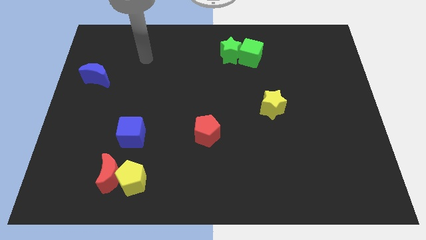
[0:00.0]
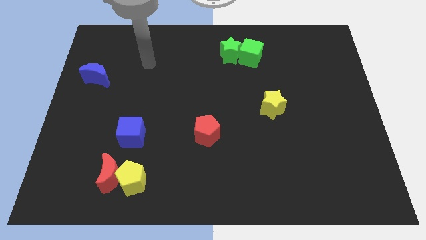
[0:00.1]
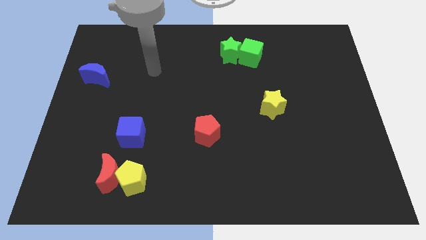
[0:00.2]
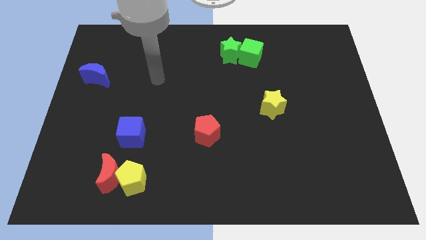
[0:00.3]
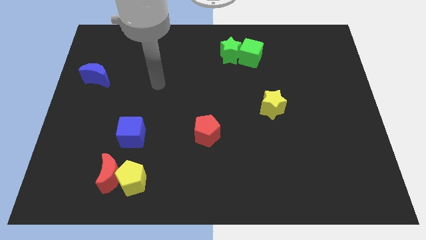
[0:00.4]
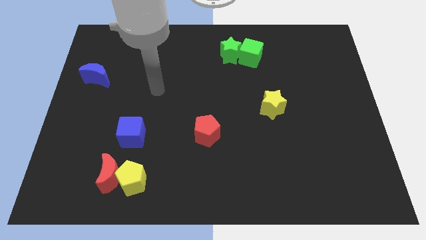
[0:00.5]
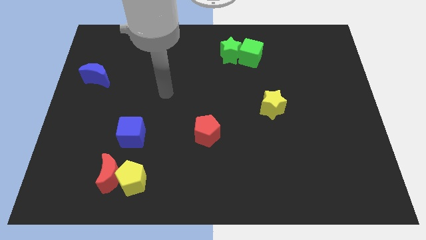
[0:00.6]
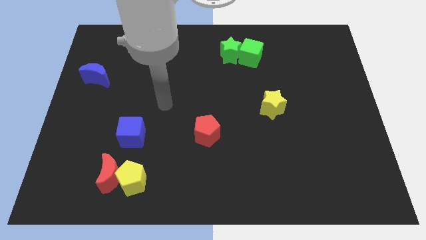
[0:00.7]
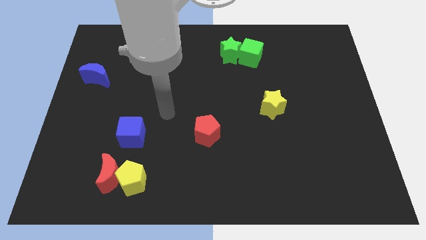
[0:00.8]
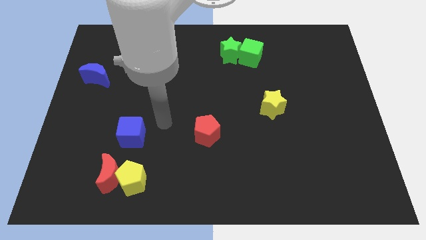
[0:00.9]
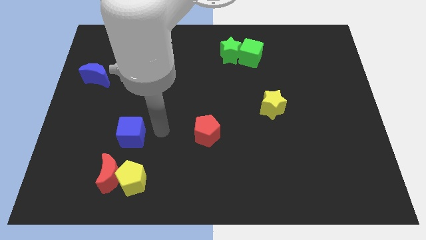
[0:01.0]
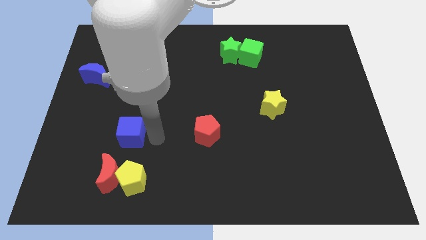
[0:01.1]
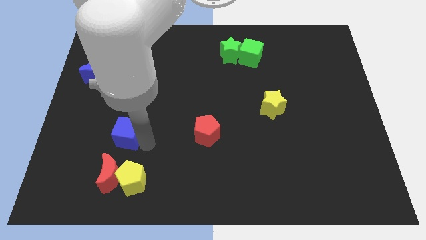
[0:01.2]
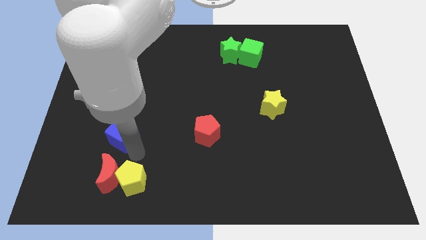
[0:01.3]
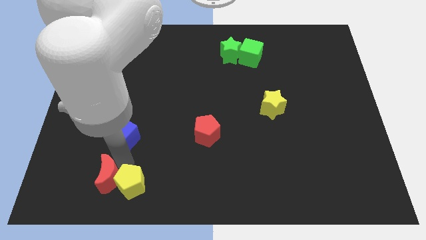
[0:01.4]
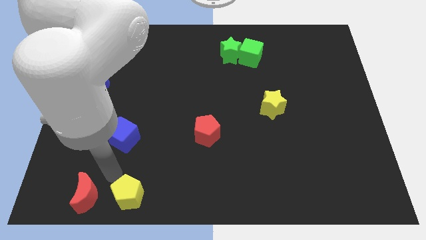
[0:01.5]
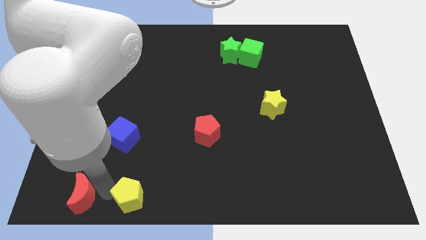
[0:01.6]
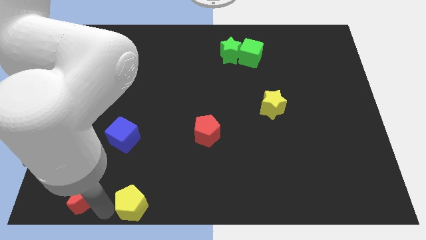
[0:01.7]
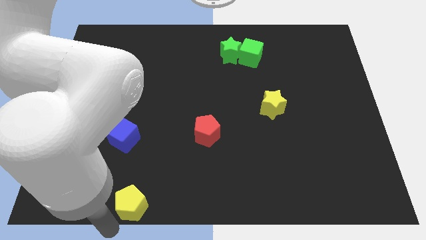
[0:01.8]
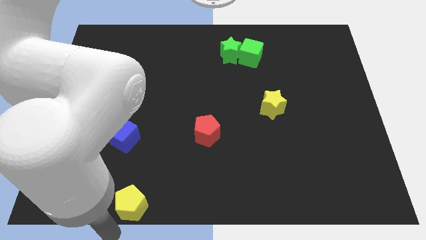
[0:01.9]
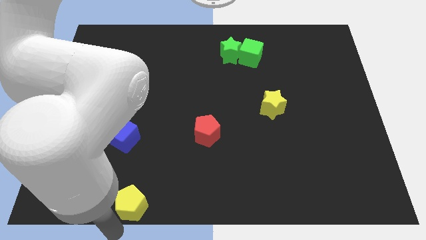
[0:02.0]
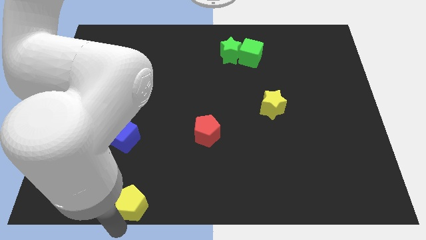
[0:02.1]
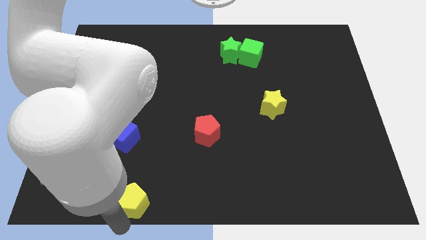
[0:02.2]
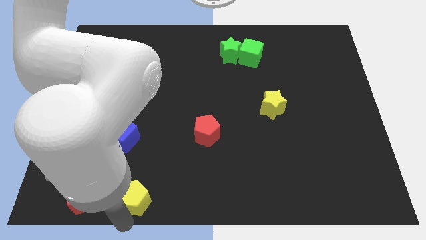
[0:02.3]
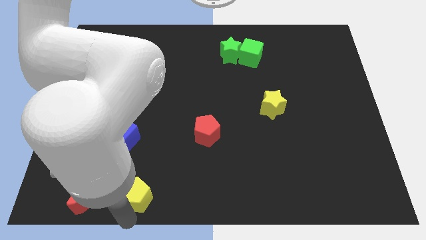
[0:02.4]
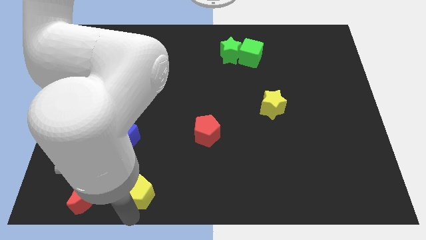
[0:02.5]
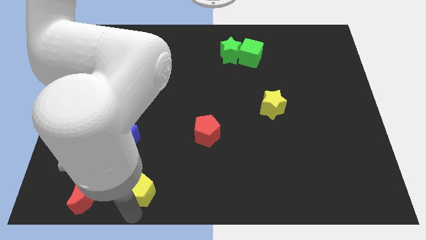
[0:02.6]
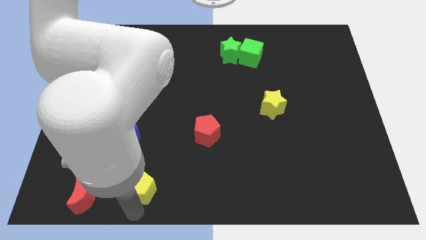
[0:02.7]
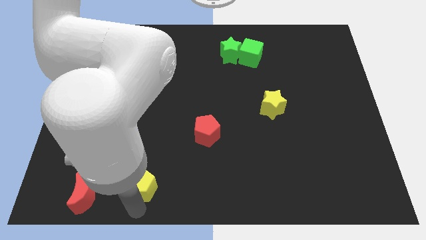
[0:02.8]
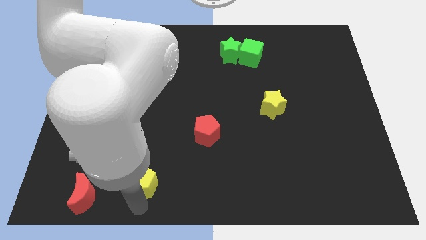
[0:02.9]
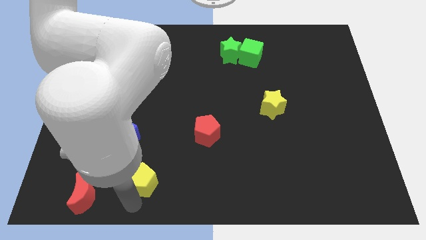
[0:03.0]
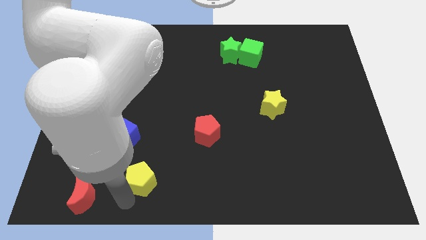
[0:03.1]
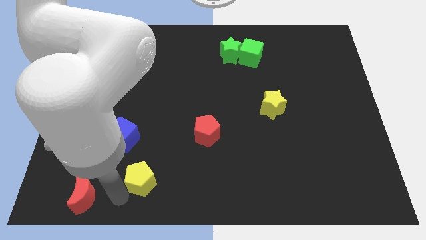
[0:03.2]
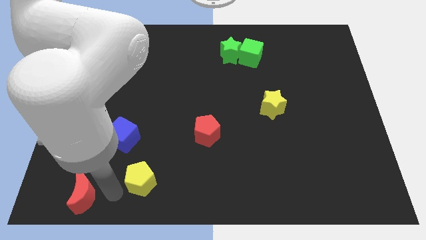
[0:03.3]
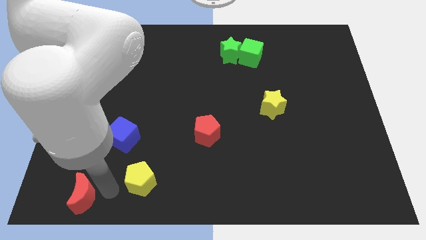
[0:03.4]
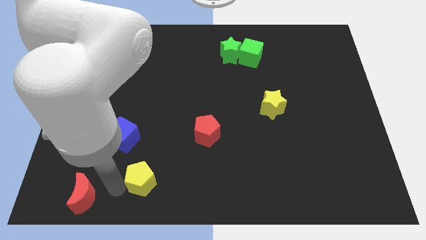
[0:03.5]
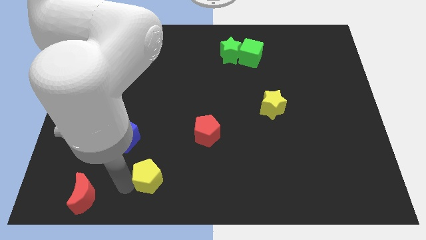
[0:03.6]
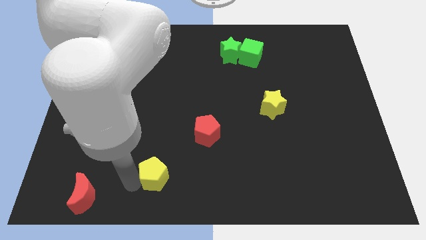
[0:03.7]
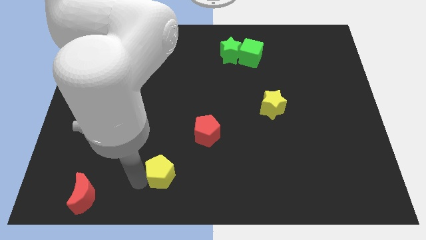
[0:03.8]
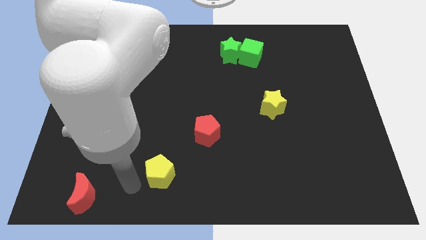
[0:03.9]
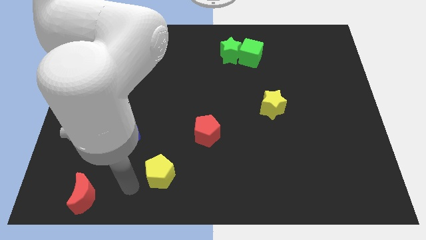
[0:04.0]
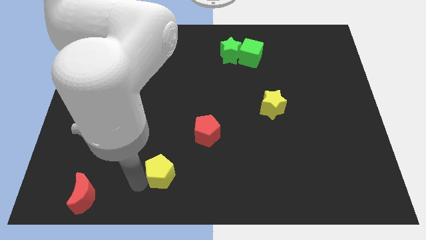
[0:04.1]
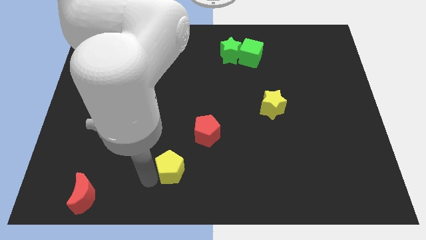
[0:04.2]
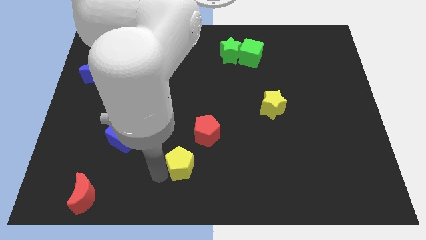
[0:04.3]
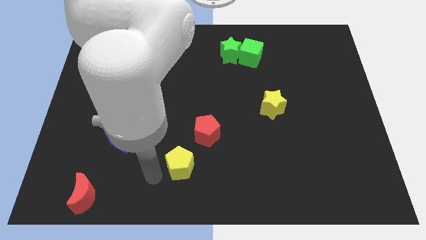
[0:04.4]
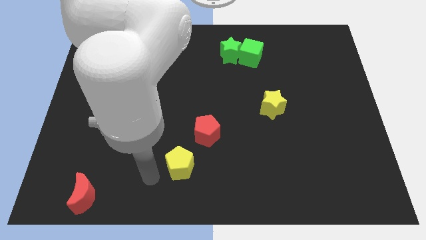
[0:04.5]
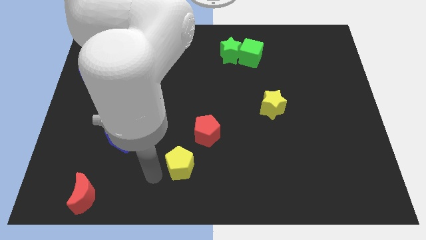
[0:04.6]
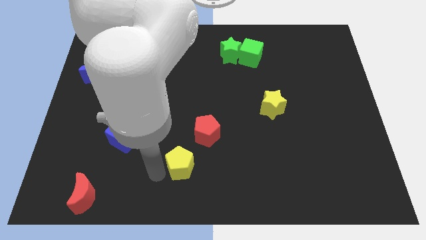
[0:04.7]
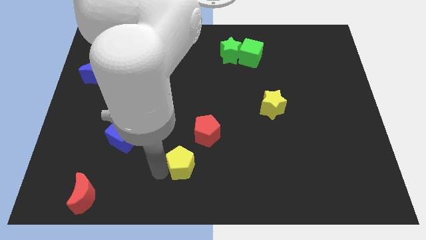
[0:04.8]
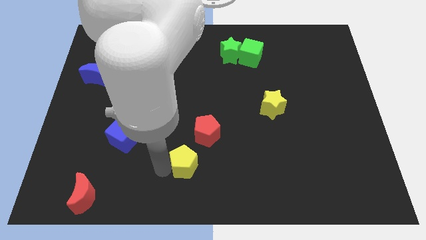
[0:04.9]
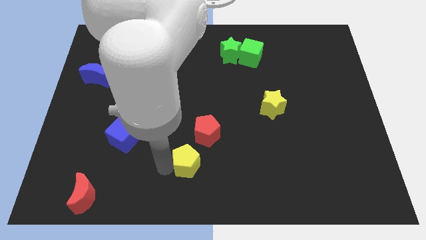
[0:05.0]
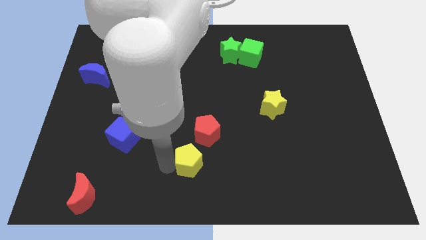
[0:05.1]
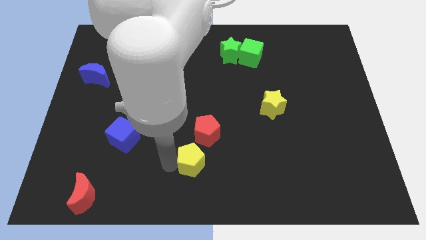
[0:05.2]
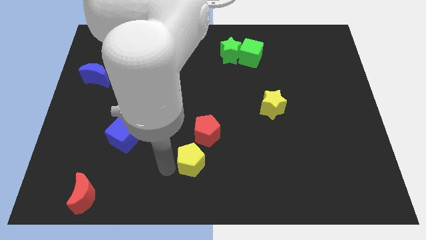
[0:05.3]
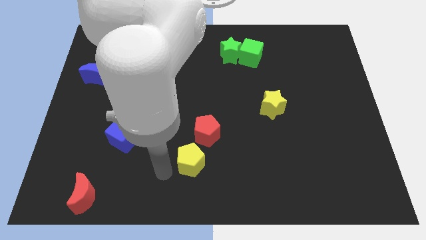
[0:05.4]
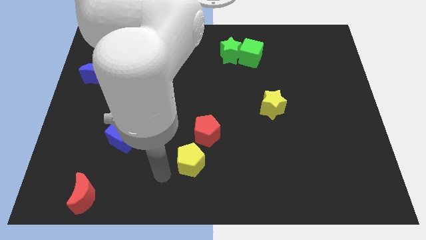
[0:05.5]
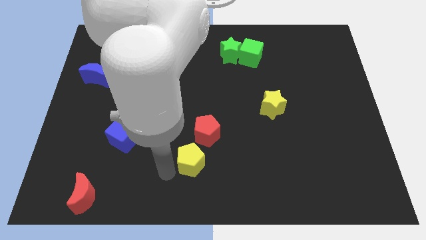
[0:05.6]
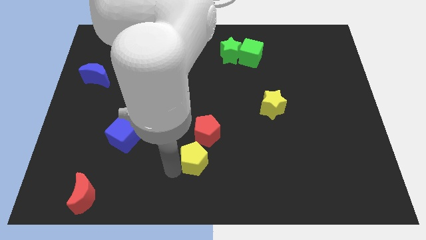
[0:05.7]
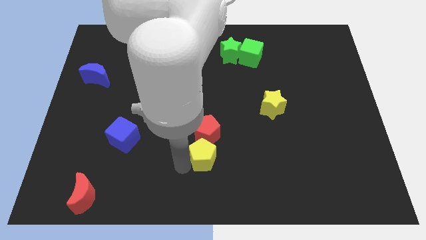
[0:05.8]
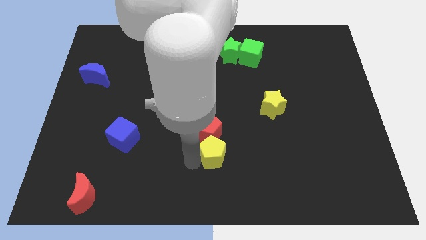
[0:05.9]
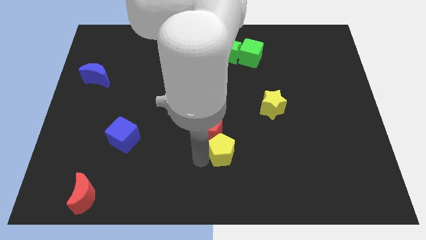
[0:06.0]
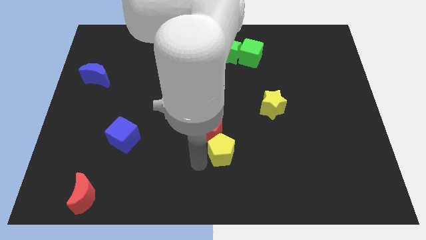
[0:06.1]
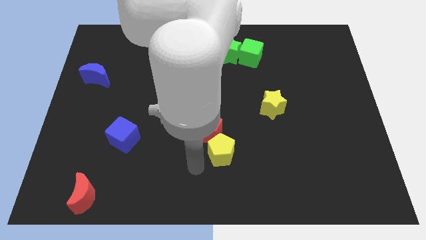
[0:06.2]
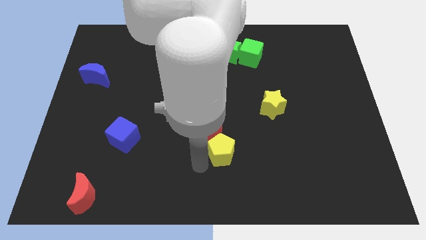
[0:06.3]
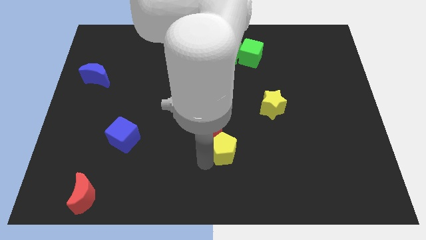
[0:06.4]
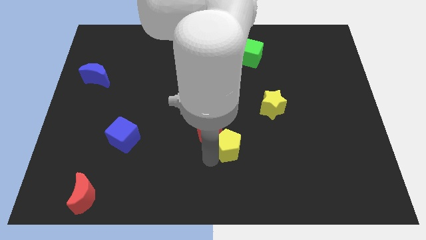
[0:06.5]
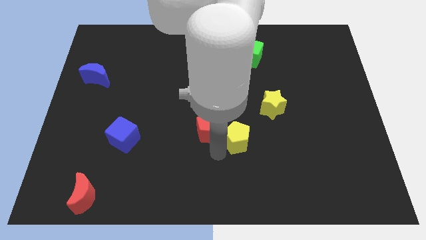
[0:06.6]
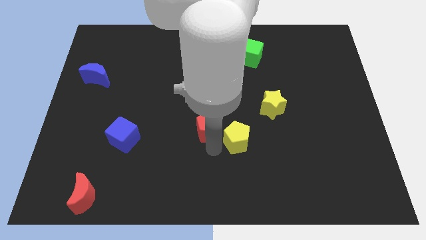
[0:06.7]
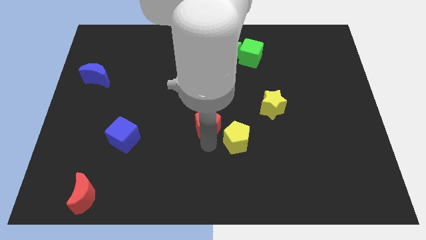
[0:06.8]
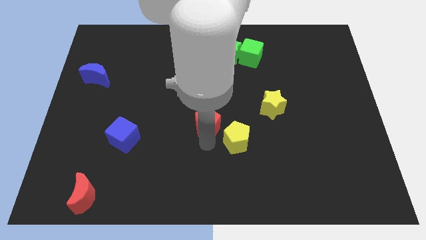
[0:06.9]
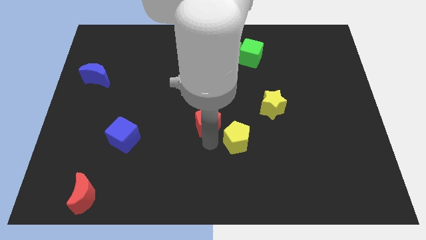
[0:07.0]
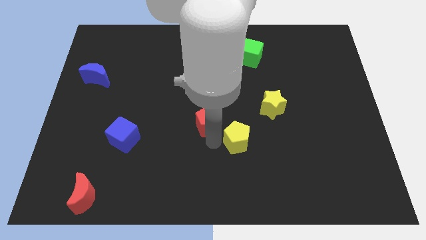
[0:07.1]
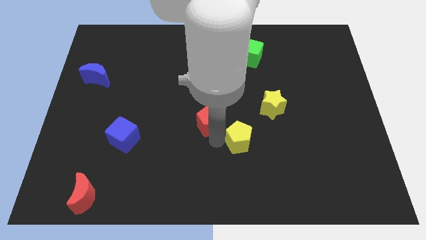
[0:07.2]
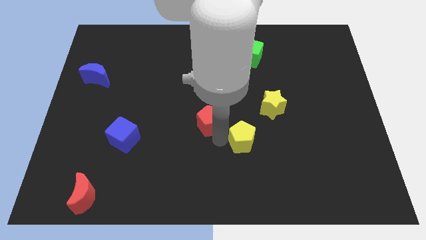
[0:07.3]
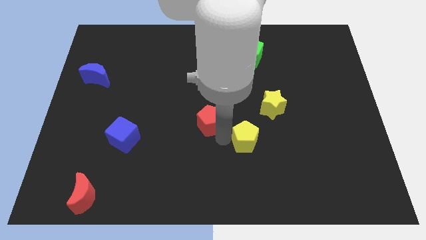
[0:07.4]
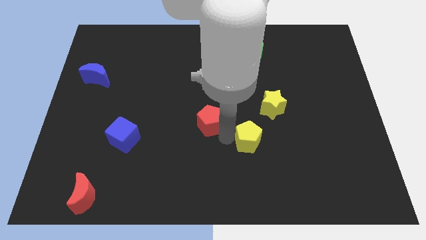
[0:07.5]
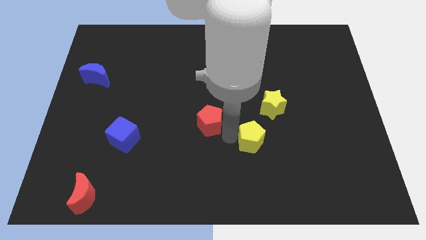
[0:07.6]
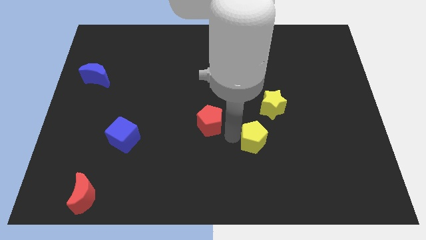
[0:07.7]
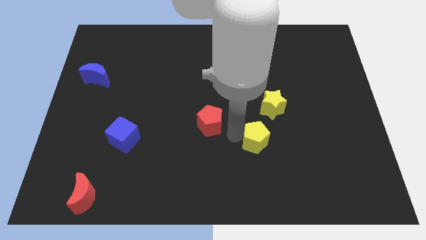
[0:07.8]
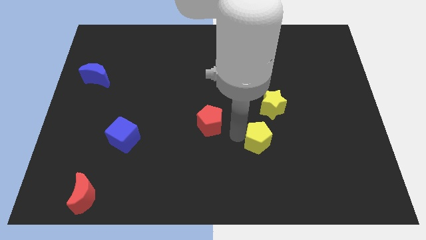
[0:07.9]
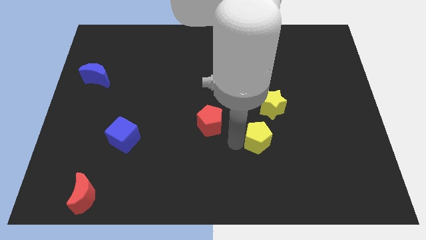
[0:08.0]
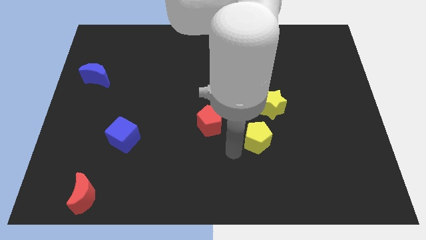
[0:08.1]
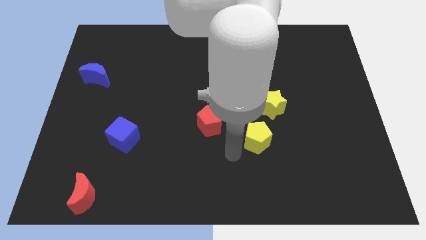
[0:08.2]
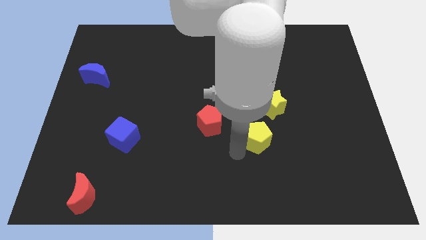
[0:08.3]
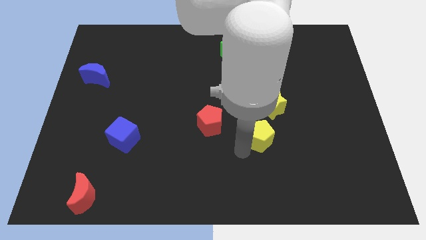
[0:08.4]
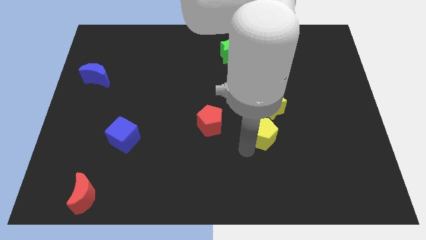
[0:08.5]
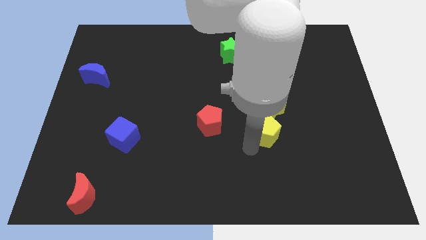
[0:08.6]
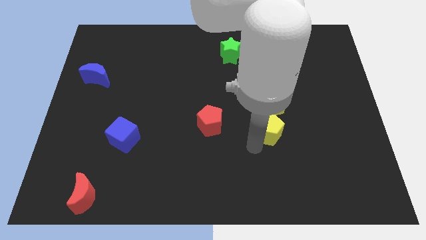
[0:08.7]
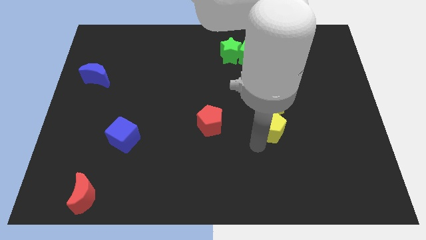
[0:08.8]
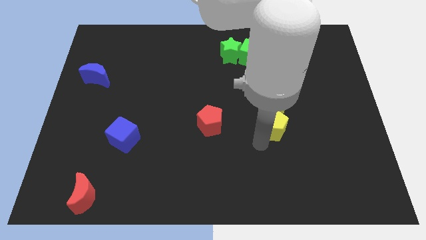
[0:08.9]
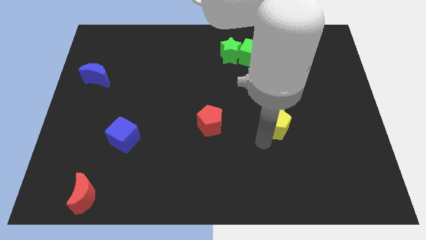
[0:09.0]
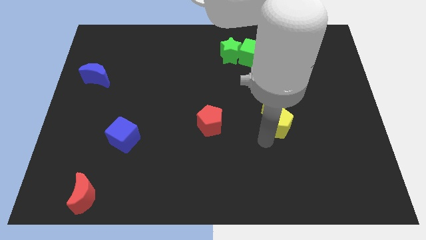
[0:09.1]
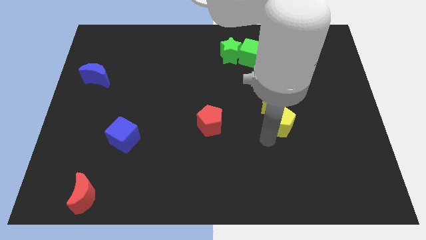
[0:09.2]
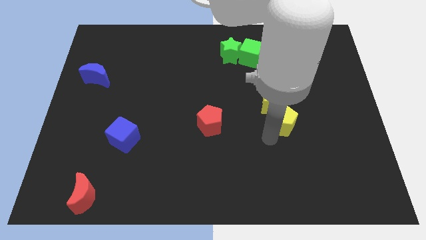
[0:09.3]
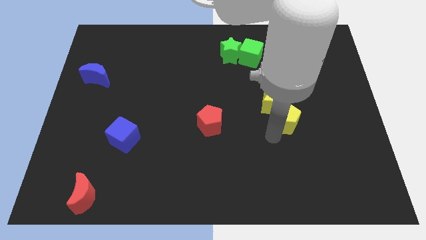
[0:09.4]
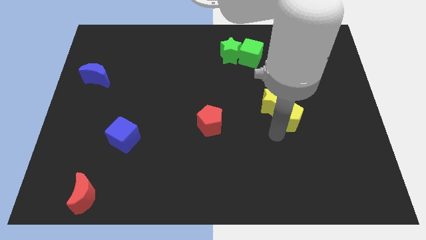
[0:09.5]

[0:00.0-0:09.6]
push the yellow pentagon just right of the yellow star
